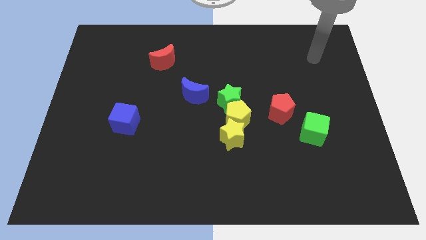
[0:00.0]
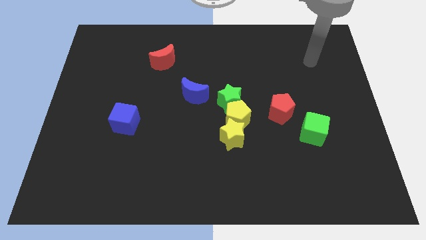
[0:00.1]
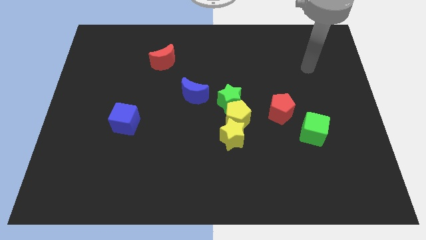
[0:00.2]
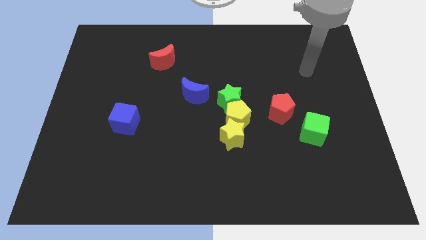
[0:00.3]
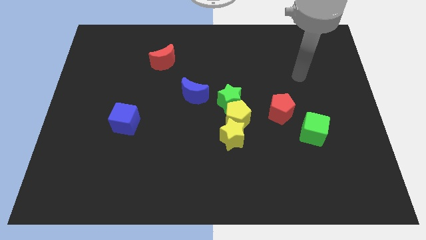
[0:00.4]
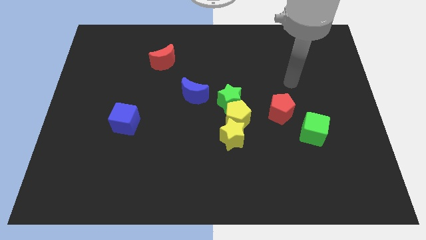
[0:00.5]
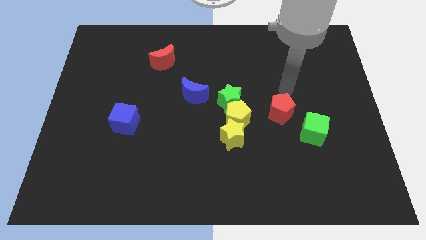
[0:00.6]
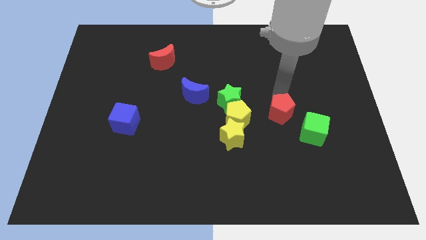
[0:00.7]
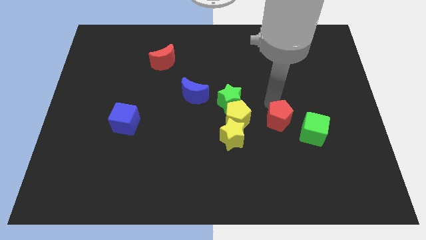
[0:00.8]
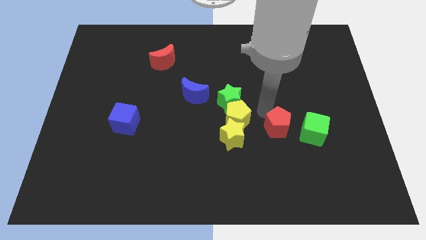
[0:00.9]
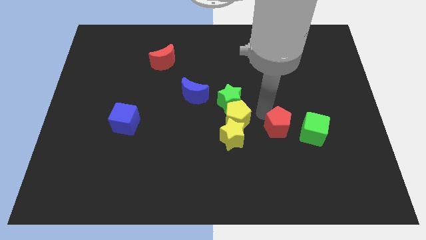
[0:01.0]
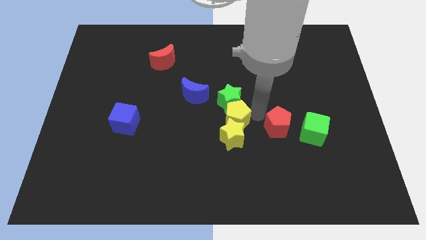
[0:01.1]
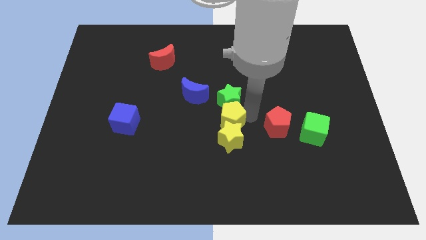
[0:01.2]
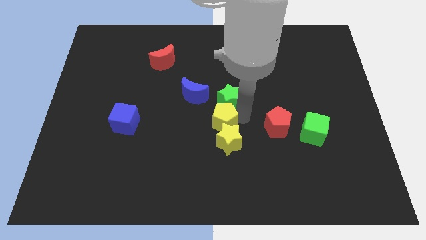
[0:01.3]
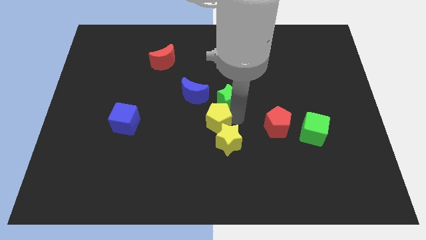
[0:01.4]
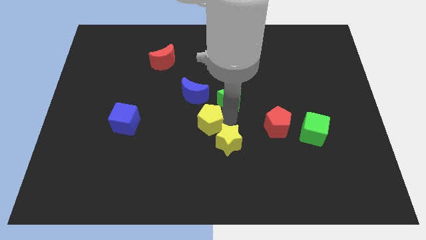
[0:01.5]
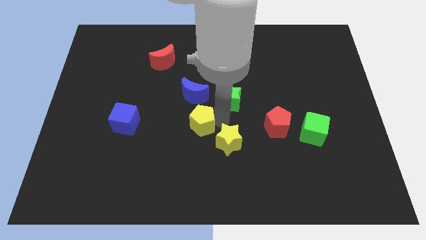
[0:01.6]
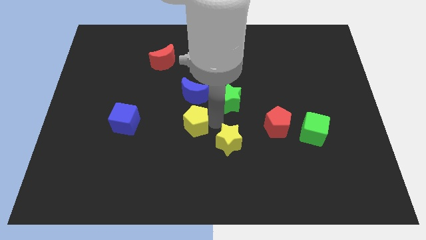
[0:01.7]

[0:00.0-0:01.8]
pull the yellow pentagon apart from the green star, yellow star, and red pentagon

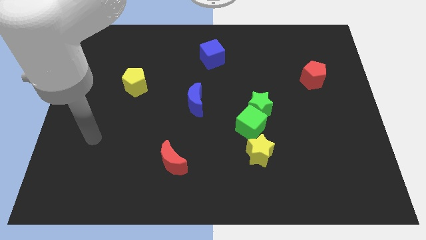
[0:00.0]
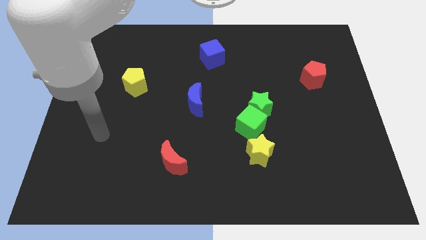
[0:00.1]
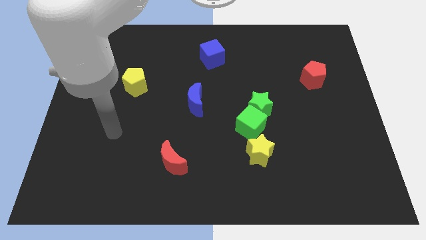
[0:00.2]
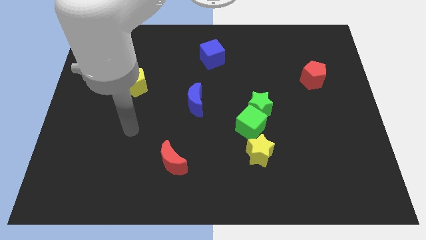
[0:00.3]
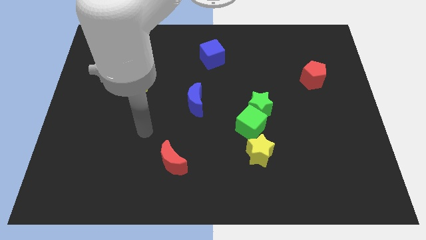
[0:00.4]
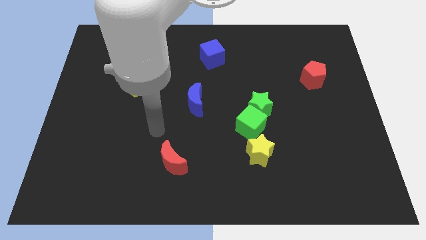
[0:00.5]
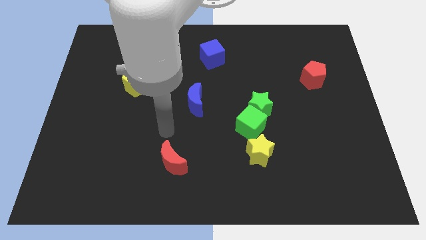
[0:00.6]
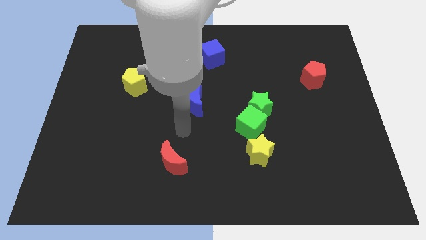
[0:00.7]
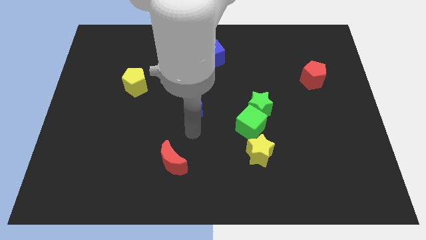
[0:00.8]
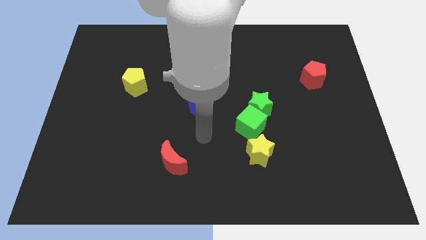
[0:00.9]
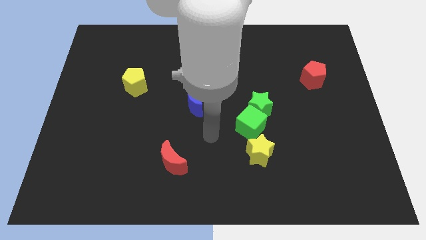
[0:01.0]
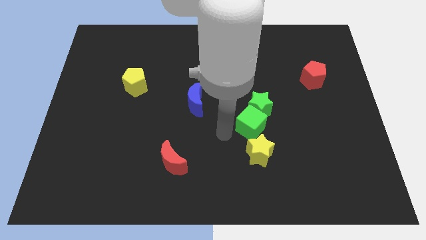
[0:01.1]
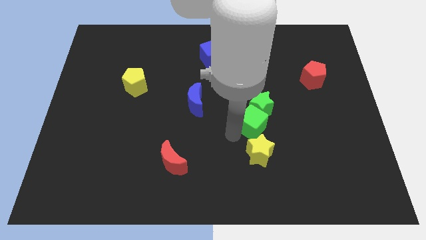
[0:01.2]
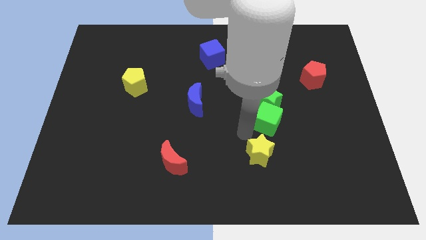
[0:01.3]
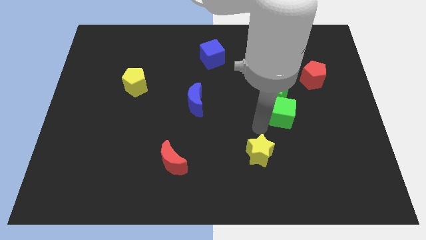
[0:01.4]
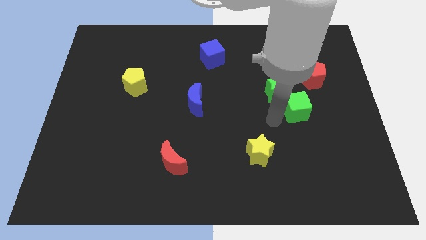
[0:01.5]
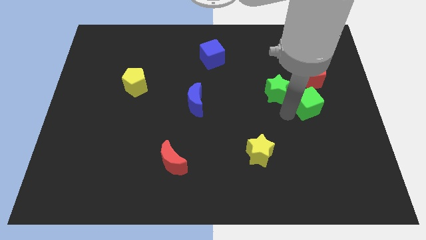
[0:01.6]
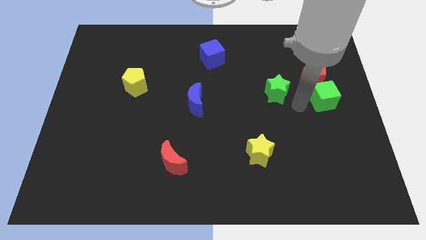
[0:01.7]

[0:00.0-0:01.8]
pull the green star apart from the green cube

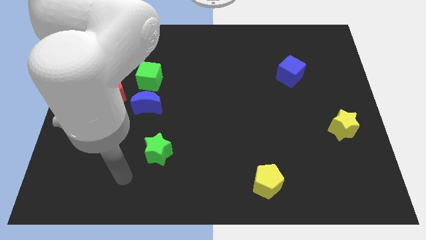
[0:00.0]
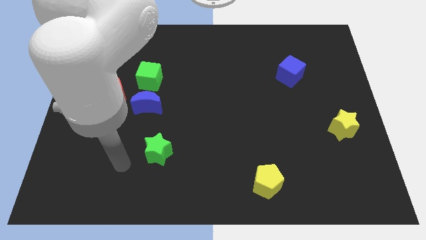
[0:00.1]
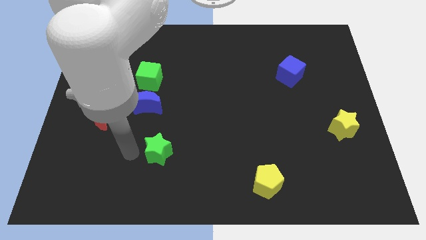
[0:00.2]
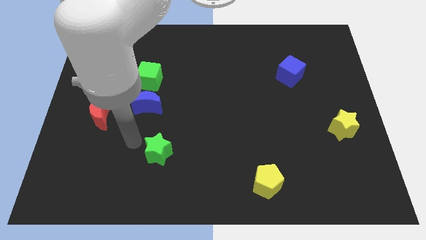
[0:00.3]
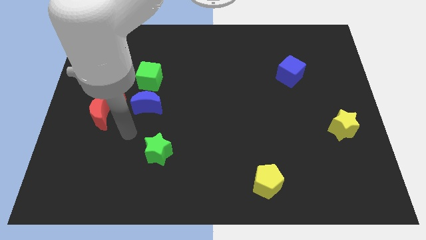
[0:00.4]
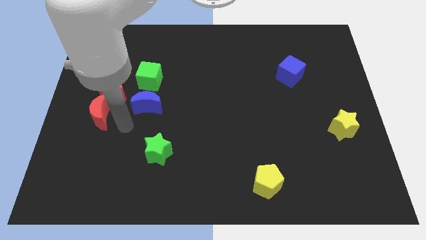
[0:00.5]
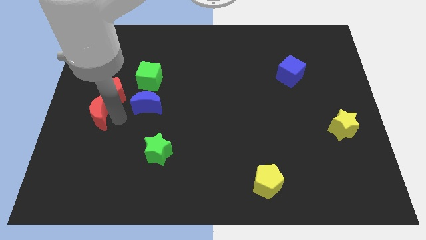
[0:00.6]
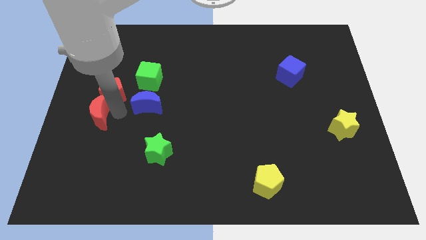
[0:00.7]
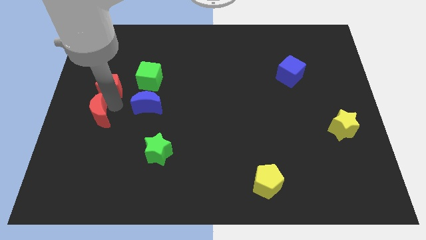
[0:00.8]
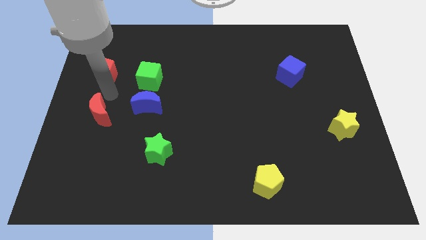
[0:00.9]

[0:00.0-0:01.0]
move the red moon away from the red pentagon

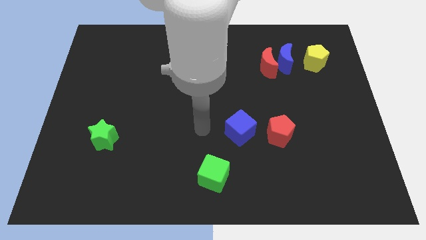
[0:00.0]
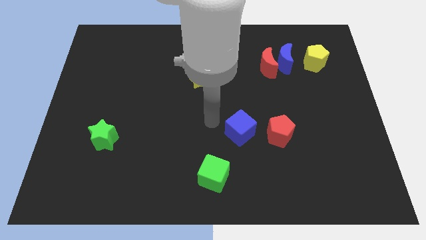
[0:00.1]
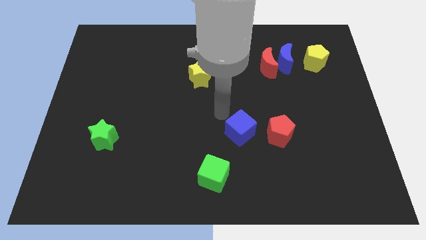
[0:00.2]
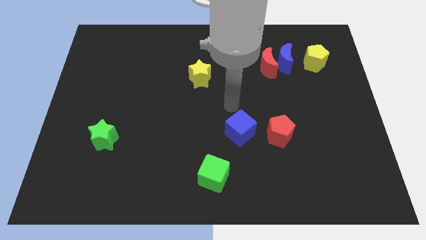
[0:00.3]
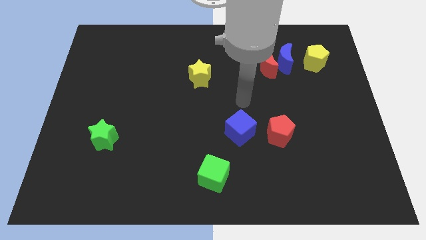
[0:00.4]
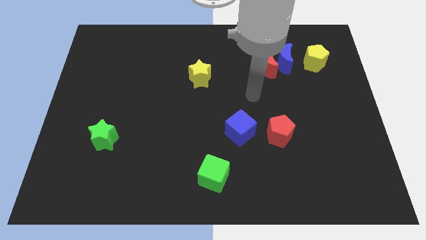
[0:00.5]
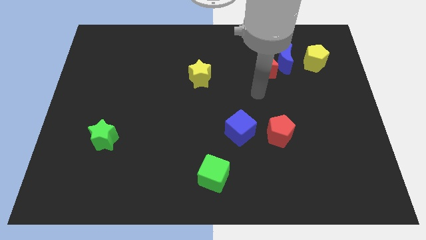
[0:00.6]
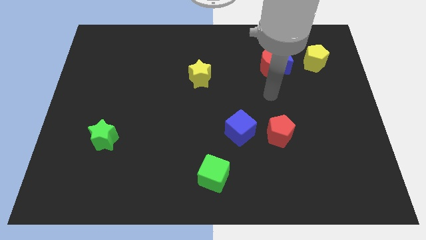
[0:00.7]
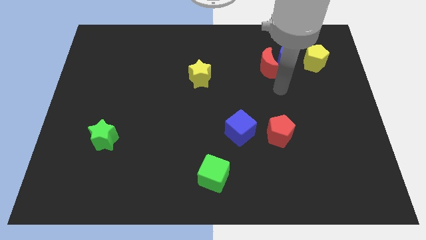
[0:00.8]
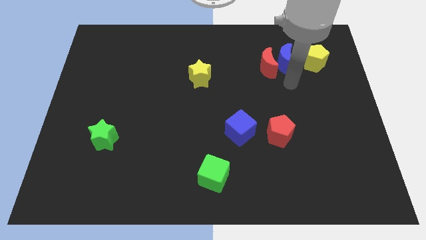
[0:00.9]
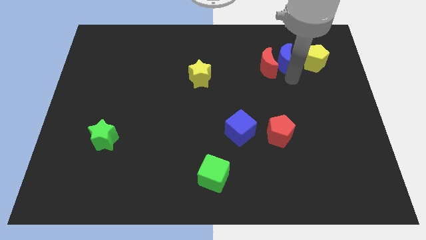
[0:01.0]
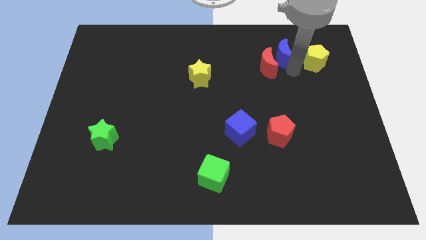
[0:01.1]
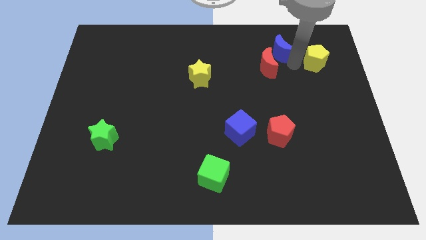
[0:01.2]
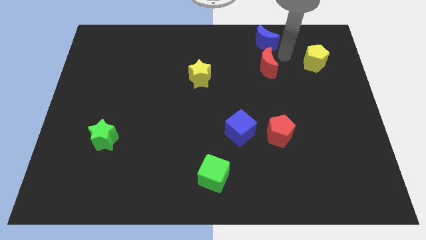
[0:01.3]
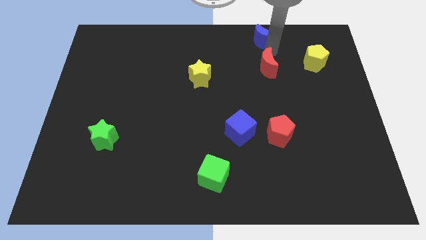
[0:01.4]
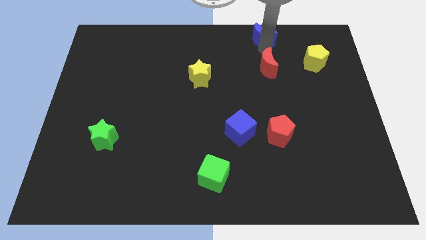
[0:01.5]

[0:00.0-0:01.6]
separate the red moon from the blue moon

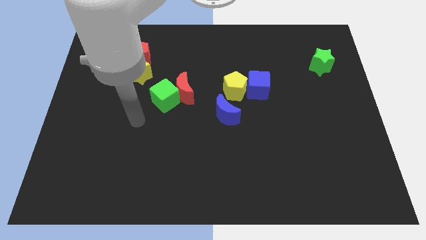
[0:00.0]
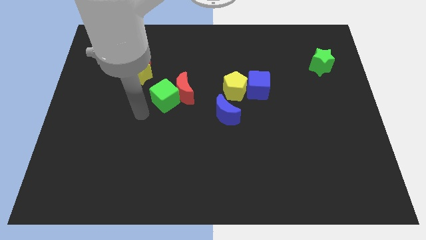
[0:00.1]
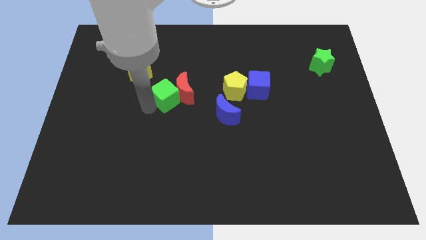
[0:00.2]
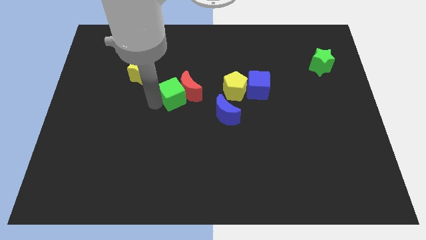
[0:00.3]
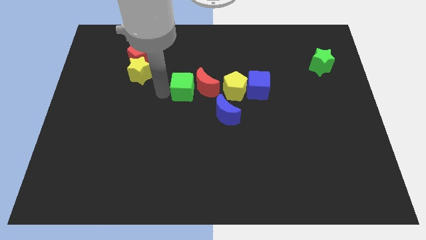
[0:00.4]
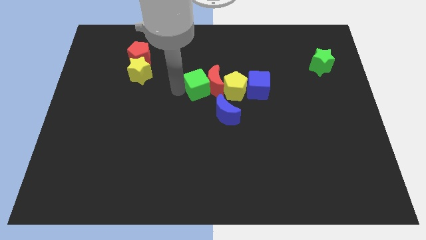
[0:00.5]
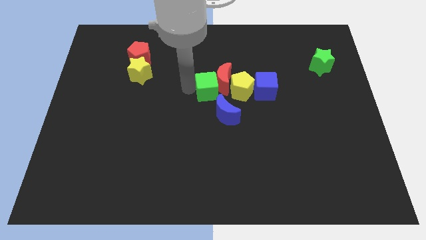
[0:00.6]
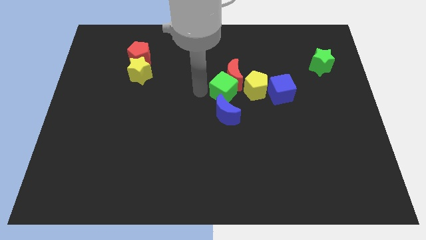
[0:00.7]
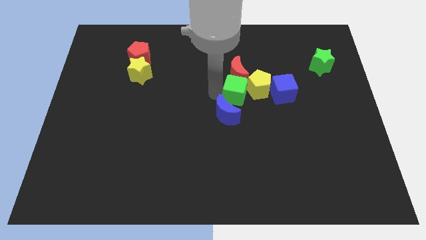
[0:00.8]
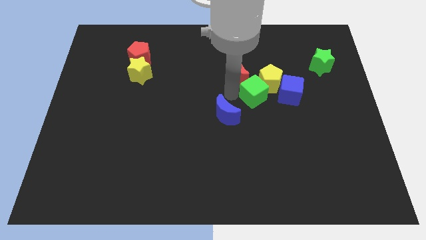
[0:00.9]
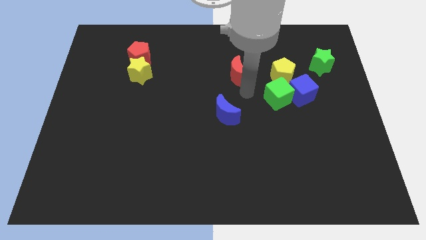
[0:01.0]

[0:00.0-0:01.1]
move the red moon away from the green cube

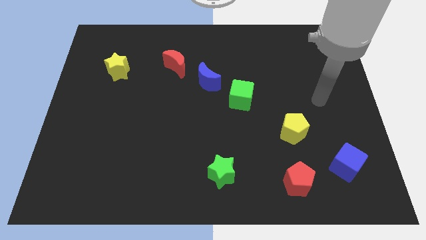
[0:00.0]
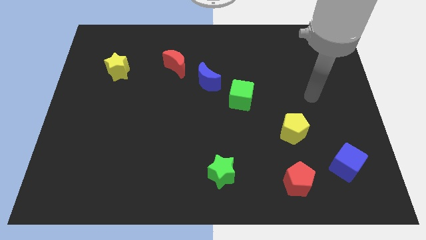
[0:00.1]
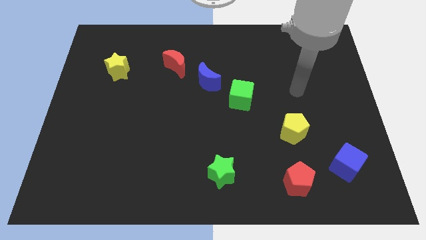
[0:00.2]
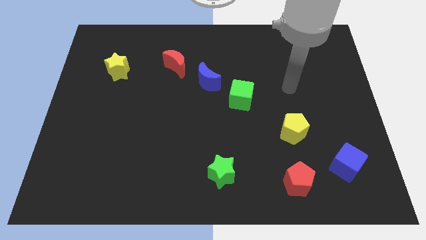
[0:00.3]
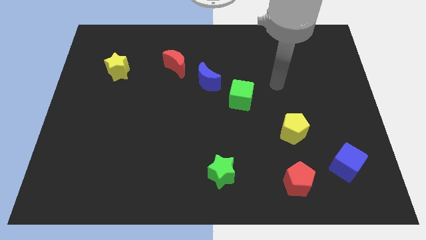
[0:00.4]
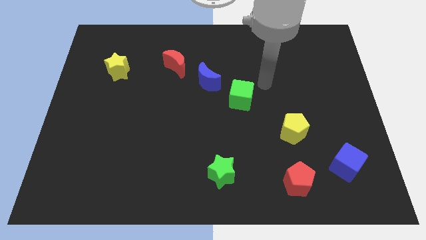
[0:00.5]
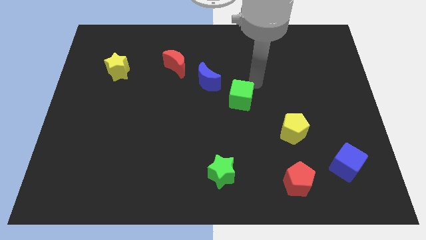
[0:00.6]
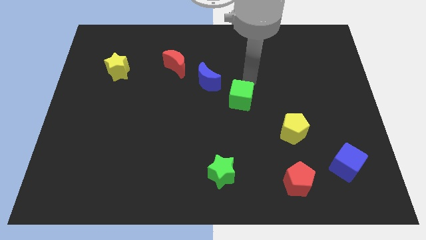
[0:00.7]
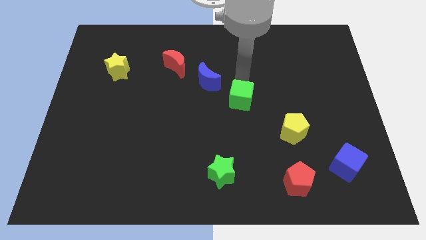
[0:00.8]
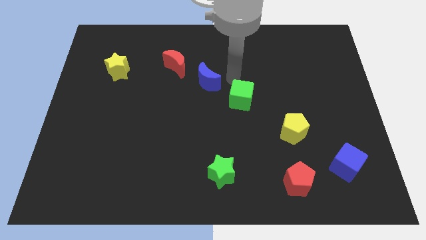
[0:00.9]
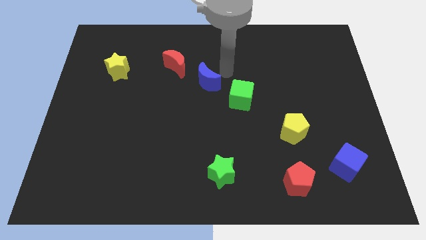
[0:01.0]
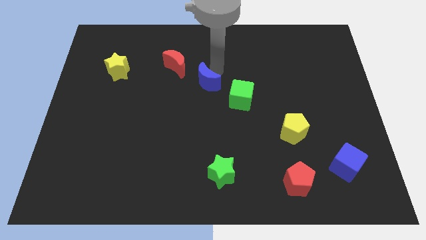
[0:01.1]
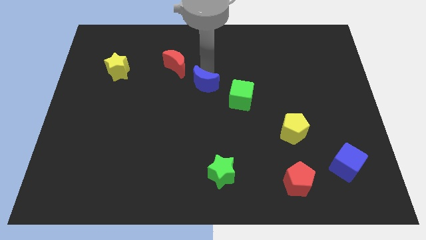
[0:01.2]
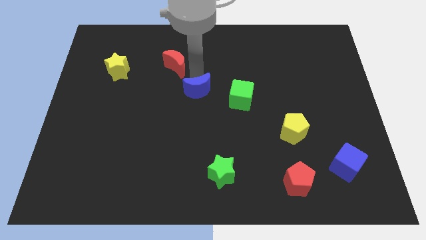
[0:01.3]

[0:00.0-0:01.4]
pull the red moon apart from the blue moon

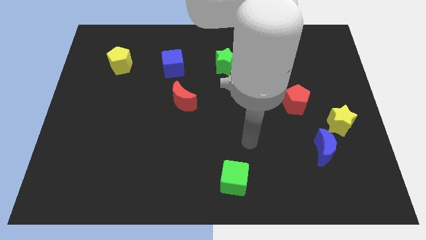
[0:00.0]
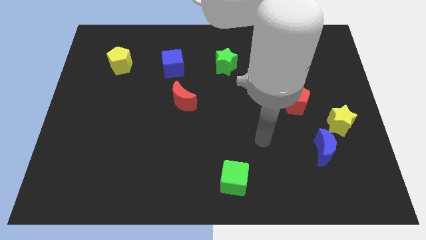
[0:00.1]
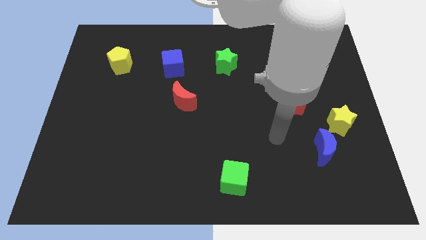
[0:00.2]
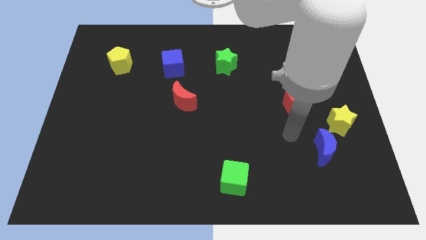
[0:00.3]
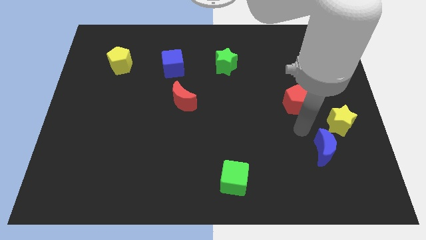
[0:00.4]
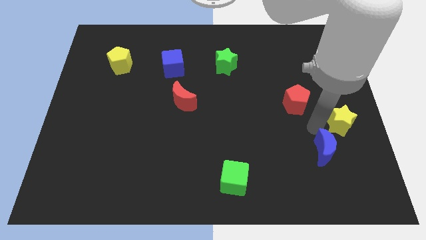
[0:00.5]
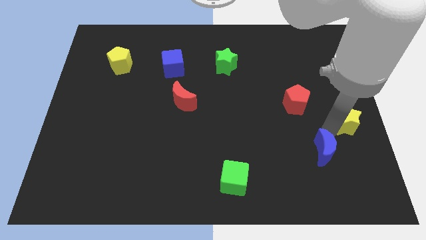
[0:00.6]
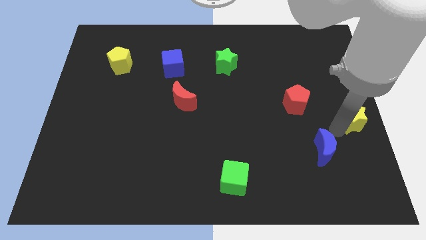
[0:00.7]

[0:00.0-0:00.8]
pull the blue moon apart from the yellow star
